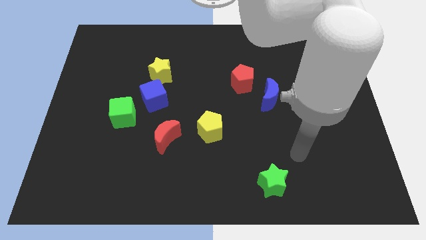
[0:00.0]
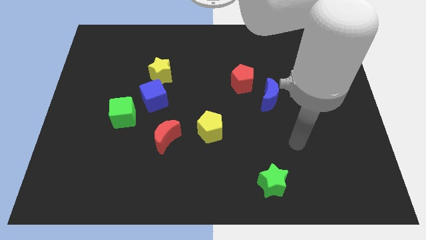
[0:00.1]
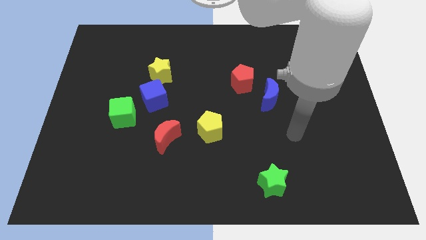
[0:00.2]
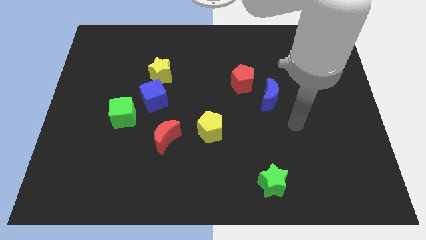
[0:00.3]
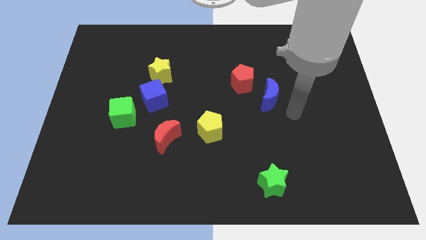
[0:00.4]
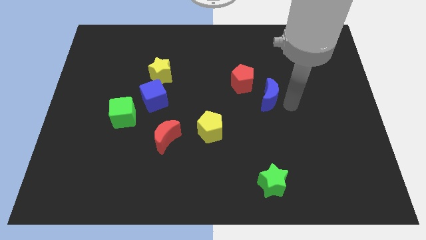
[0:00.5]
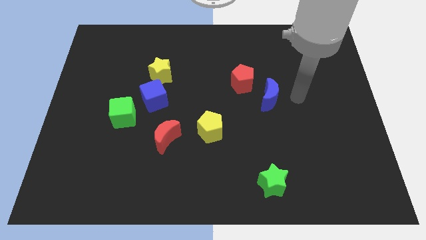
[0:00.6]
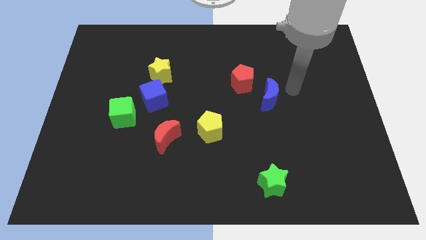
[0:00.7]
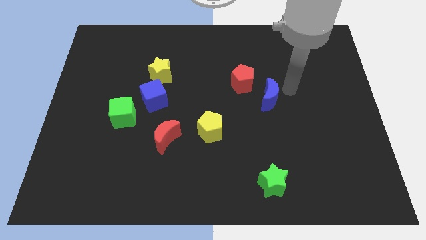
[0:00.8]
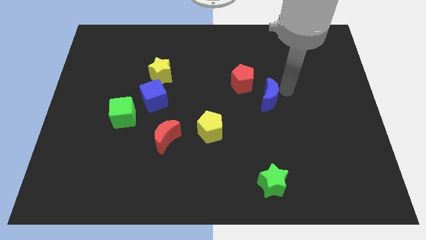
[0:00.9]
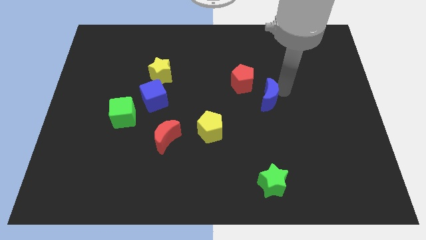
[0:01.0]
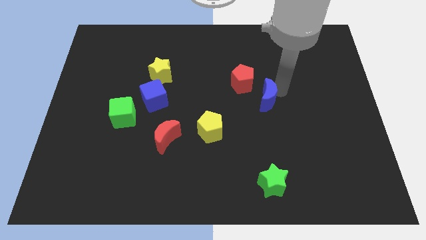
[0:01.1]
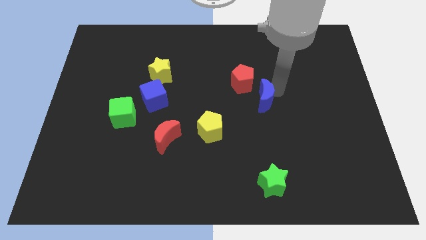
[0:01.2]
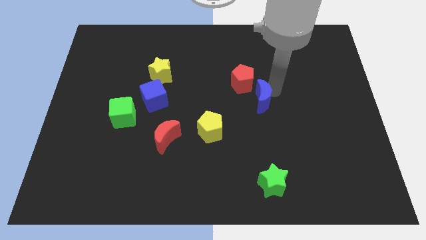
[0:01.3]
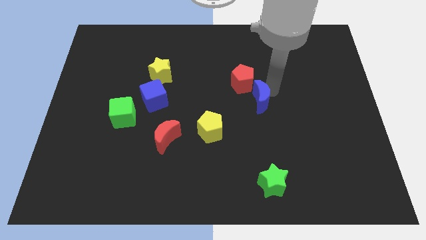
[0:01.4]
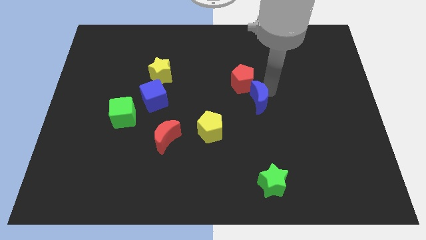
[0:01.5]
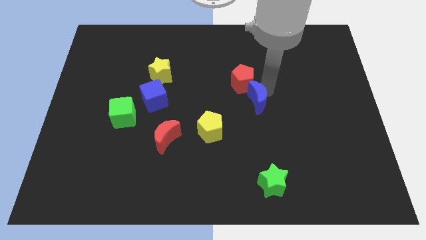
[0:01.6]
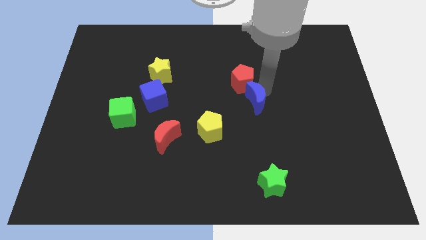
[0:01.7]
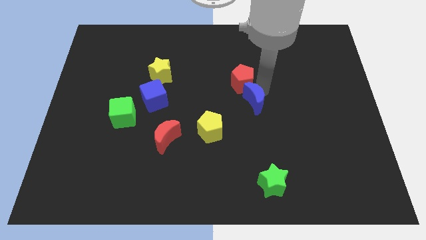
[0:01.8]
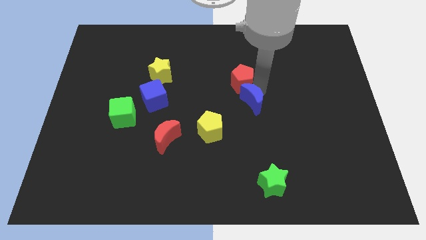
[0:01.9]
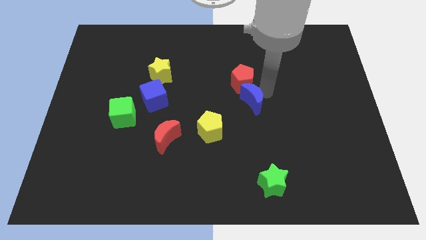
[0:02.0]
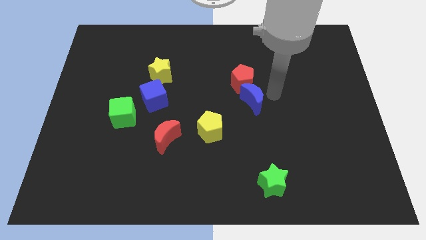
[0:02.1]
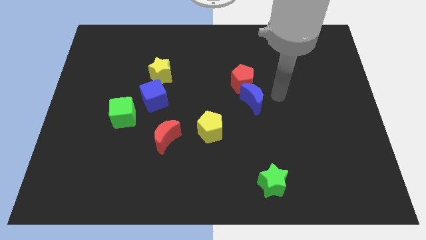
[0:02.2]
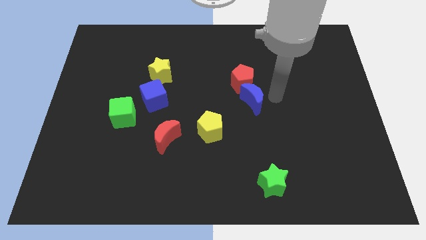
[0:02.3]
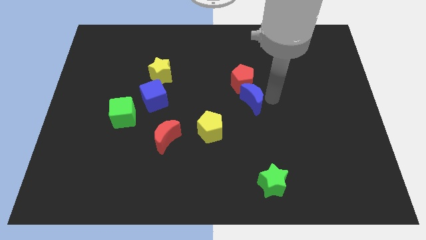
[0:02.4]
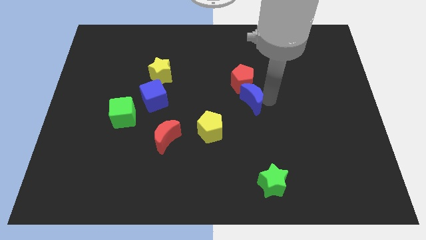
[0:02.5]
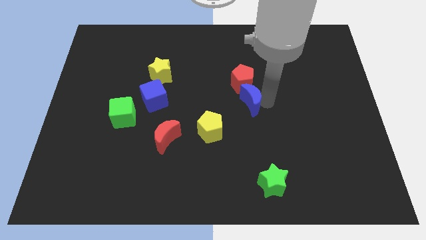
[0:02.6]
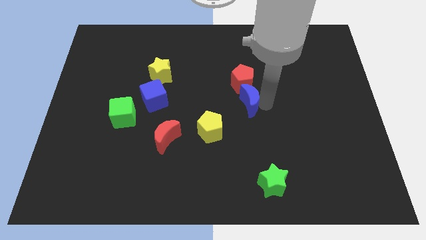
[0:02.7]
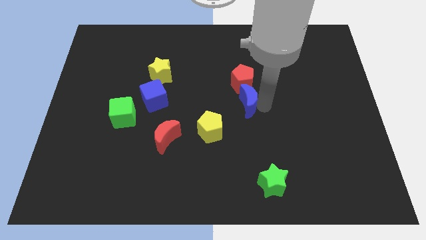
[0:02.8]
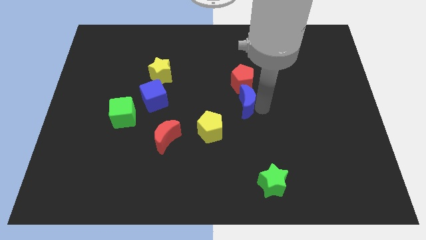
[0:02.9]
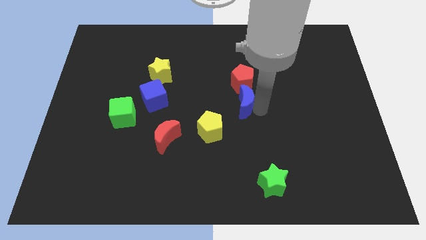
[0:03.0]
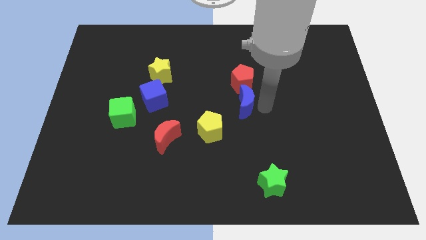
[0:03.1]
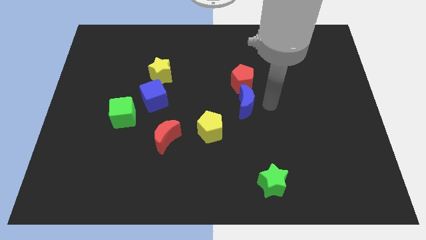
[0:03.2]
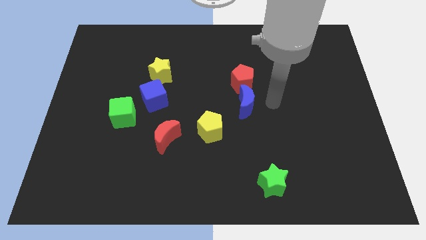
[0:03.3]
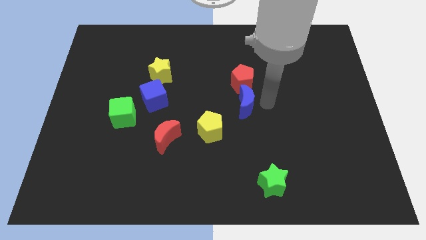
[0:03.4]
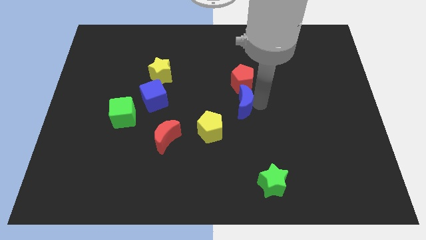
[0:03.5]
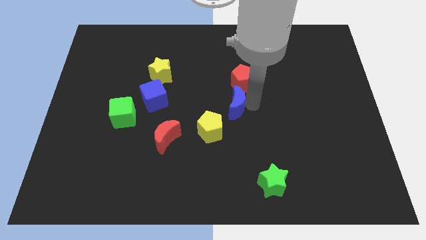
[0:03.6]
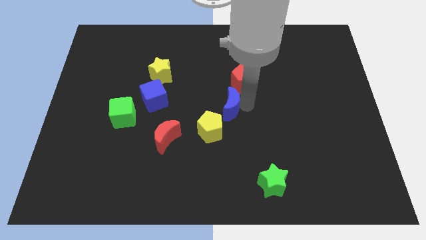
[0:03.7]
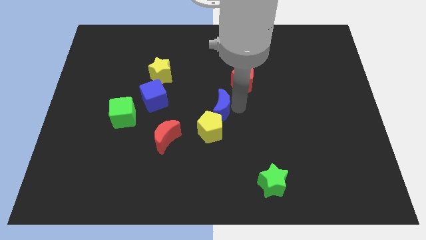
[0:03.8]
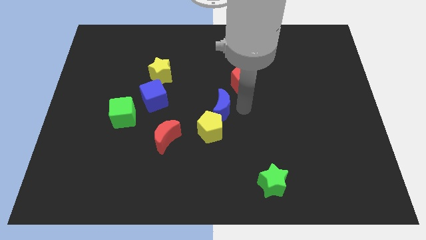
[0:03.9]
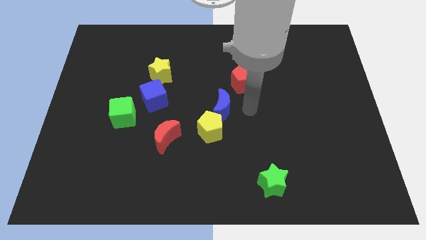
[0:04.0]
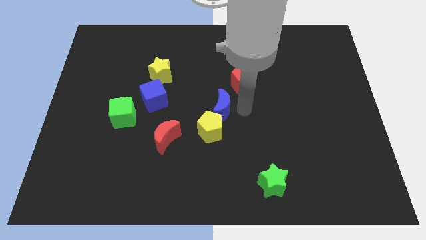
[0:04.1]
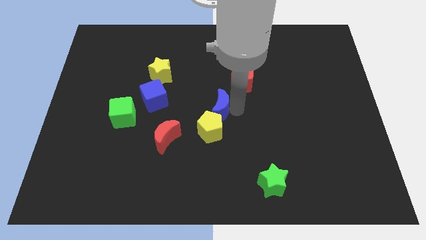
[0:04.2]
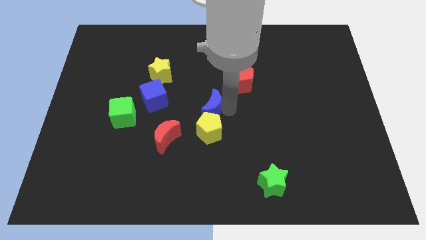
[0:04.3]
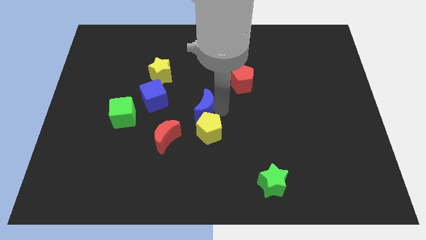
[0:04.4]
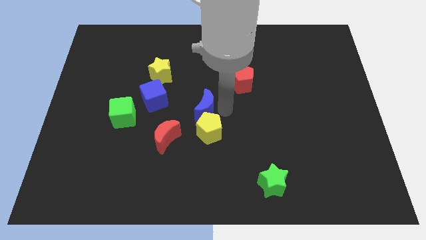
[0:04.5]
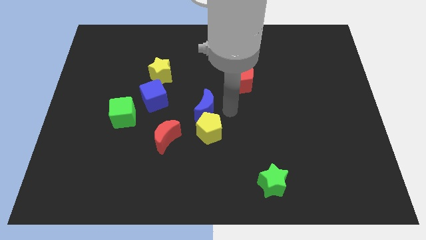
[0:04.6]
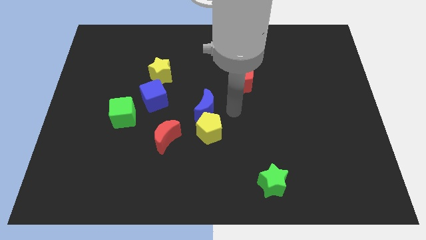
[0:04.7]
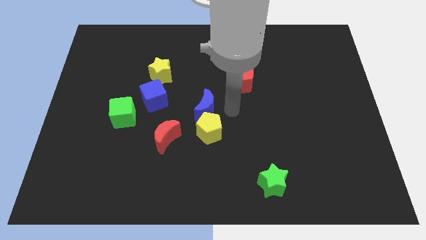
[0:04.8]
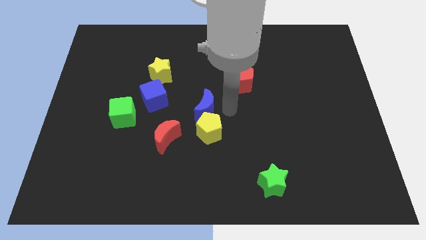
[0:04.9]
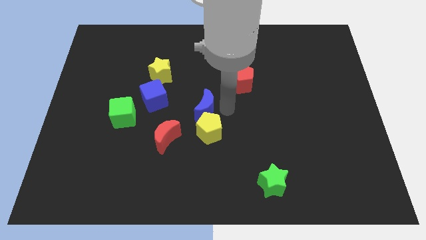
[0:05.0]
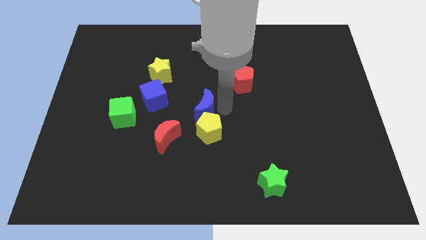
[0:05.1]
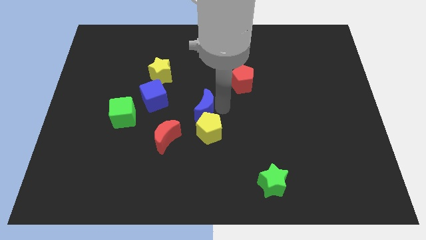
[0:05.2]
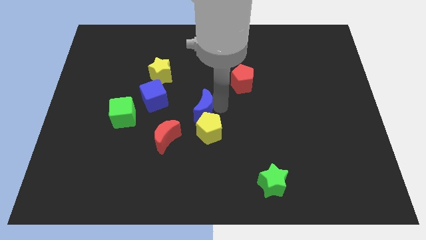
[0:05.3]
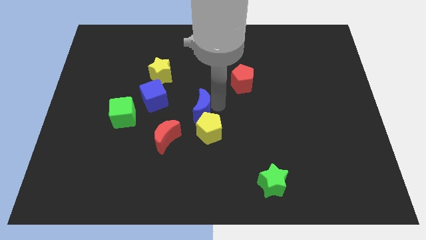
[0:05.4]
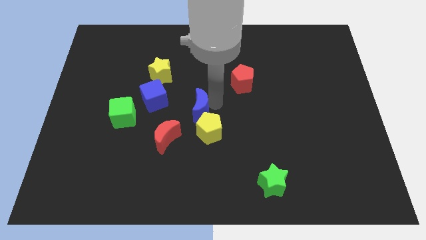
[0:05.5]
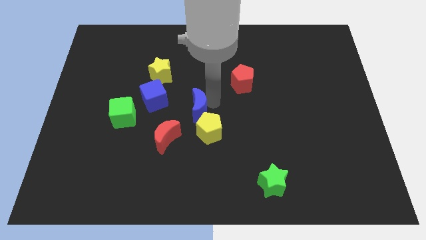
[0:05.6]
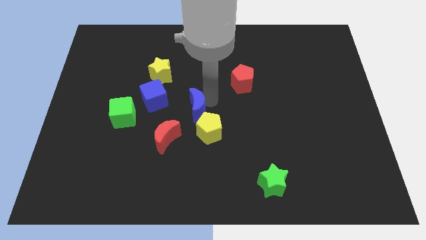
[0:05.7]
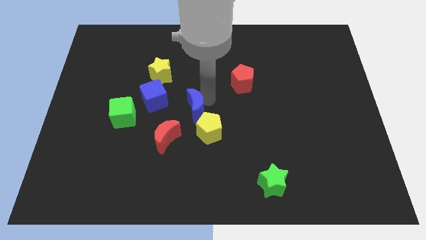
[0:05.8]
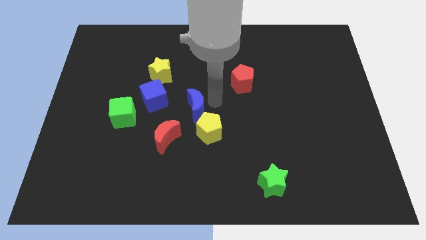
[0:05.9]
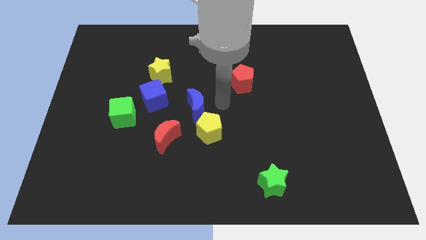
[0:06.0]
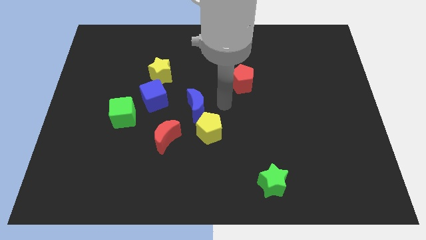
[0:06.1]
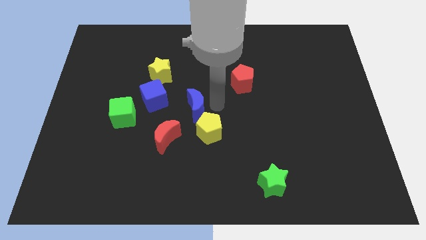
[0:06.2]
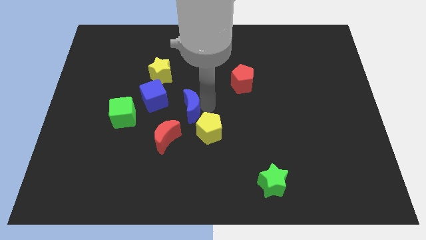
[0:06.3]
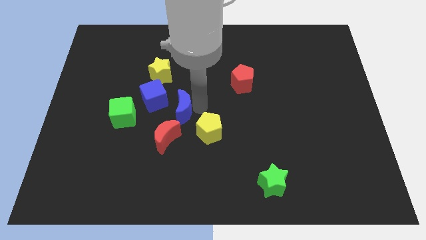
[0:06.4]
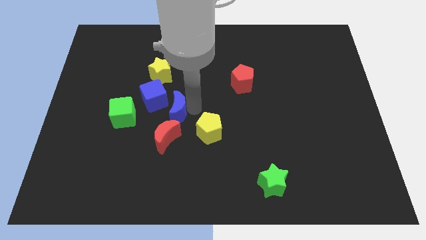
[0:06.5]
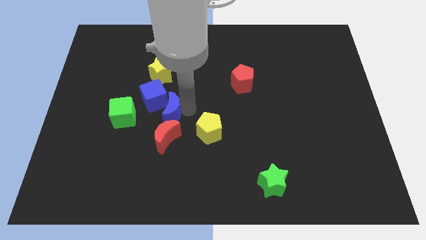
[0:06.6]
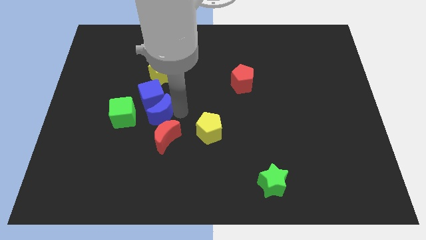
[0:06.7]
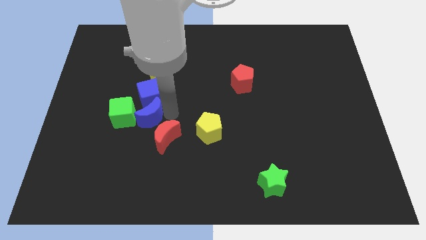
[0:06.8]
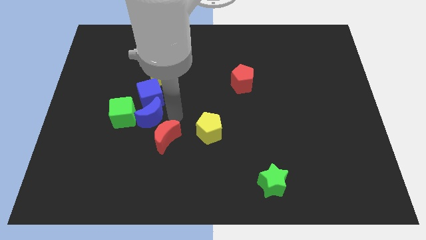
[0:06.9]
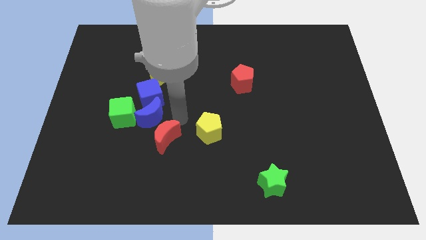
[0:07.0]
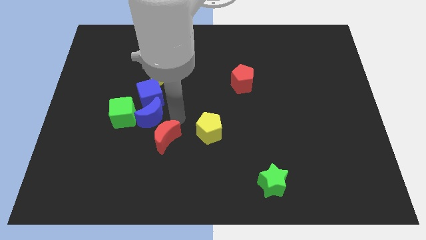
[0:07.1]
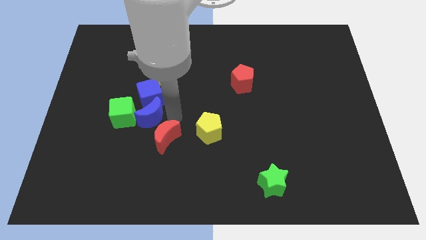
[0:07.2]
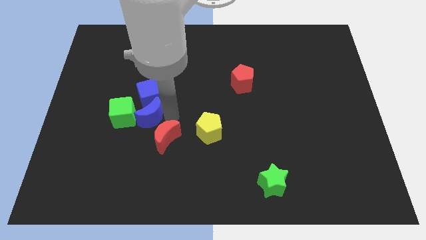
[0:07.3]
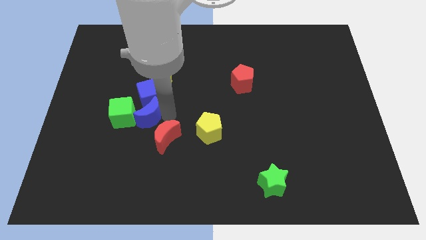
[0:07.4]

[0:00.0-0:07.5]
put the blue moon next to the green cube
